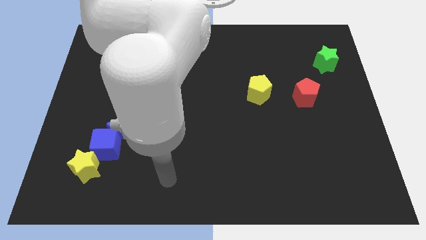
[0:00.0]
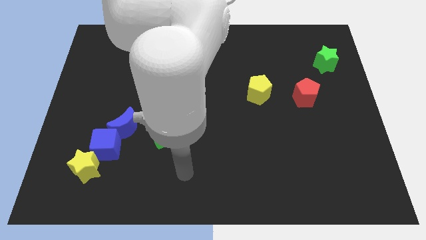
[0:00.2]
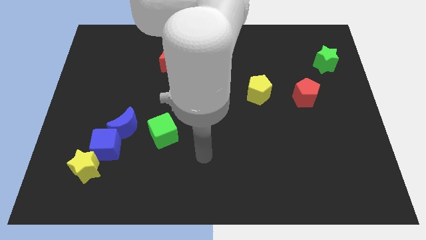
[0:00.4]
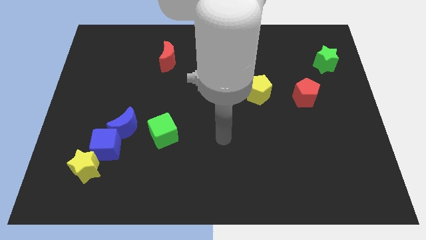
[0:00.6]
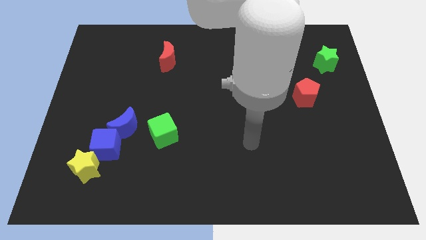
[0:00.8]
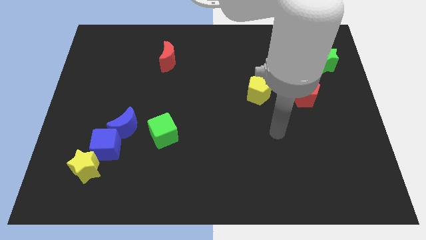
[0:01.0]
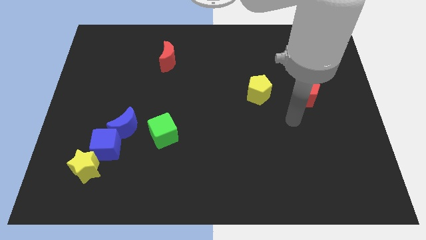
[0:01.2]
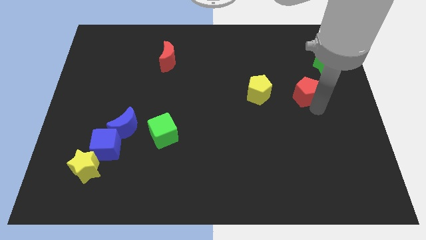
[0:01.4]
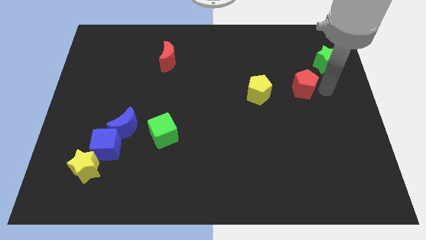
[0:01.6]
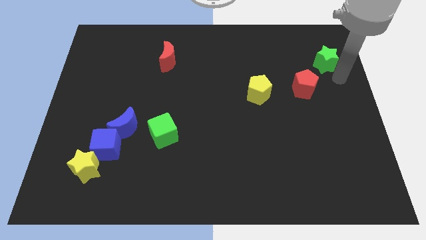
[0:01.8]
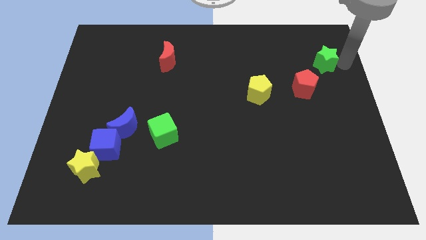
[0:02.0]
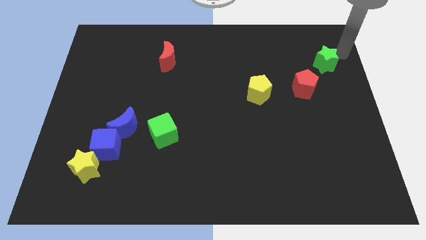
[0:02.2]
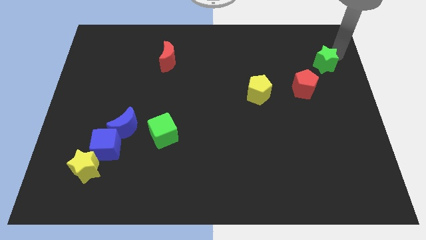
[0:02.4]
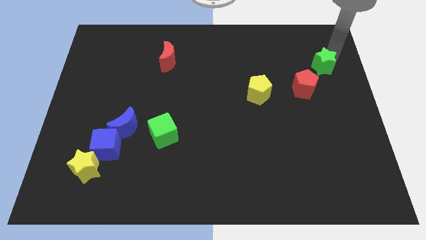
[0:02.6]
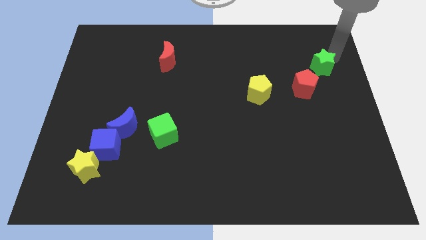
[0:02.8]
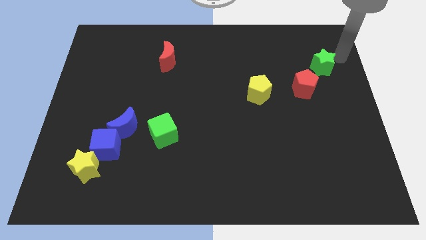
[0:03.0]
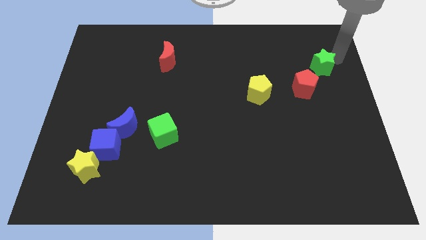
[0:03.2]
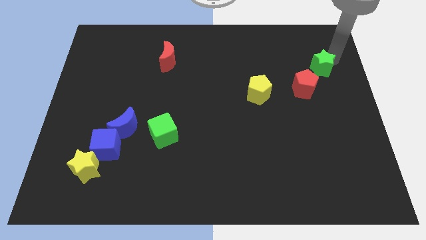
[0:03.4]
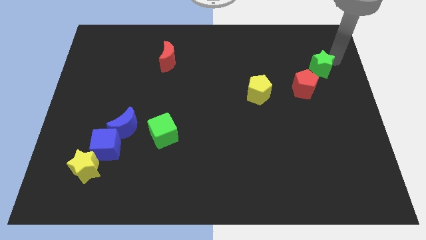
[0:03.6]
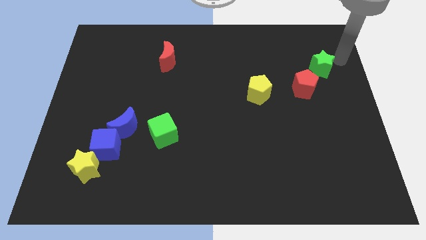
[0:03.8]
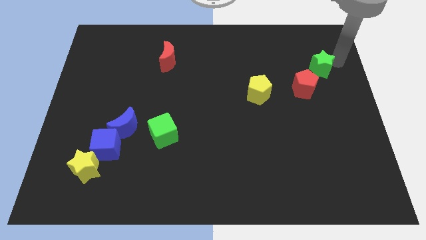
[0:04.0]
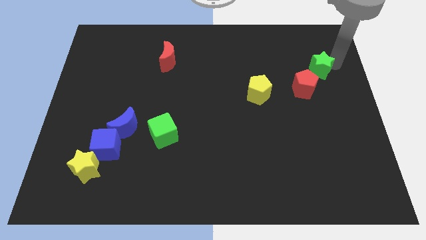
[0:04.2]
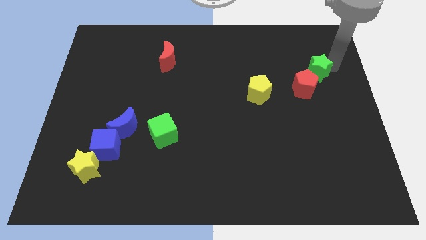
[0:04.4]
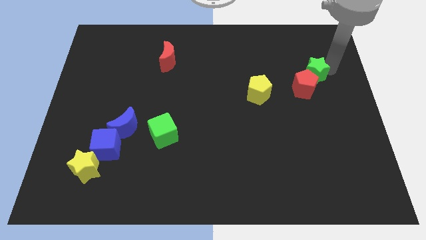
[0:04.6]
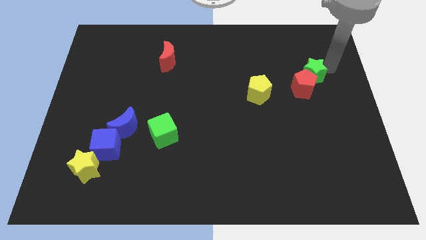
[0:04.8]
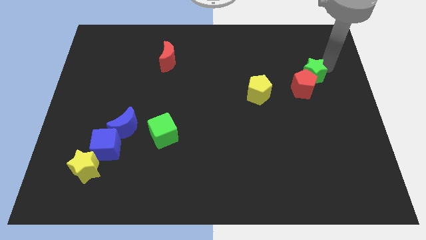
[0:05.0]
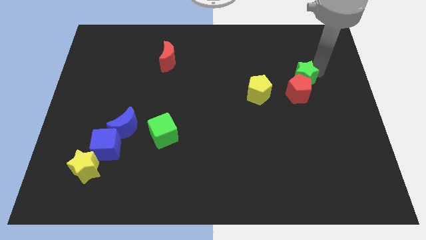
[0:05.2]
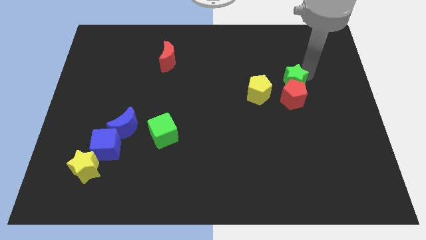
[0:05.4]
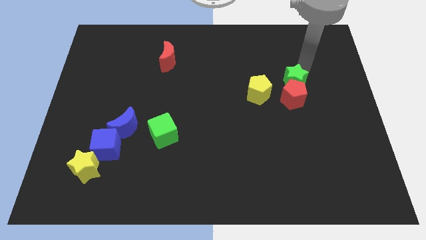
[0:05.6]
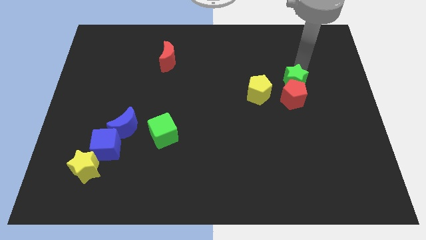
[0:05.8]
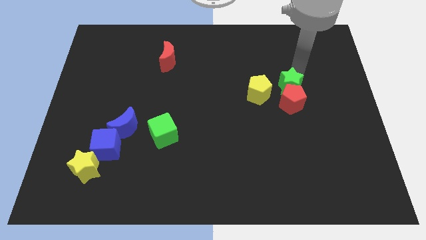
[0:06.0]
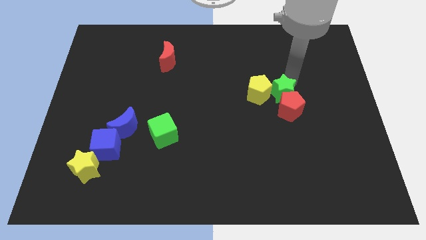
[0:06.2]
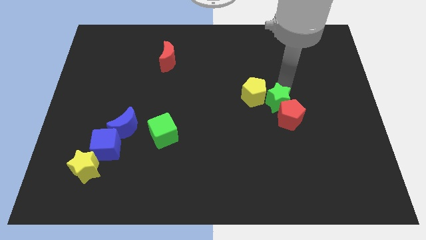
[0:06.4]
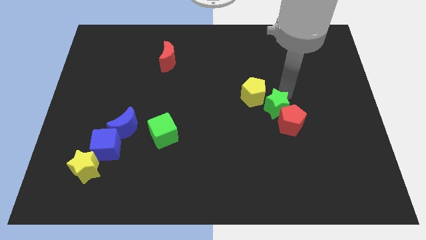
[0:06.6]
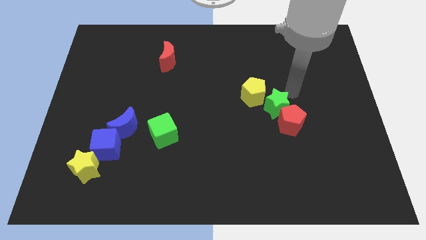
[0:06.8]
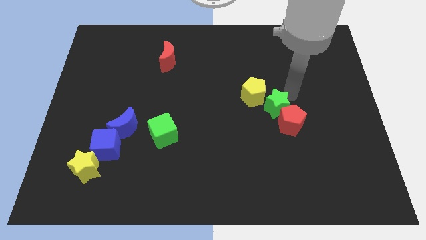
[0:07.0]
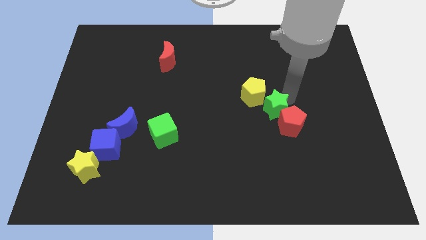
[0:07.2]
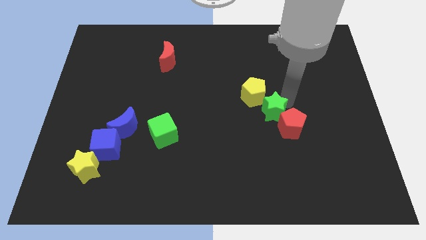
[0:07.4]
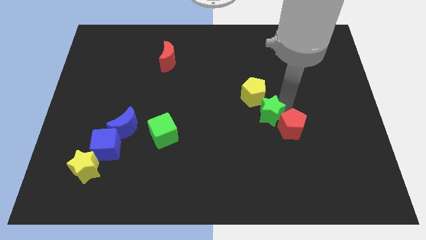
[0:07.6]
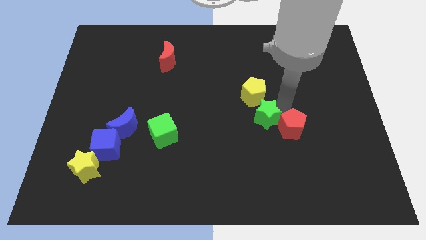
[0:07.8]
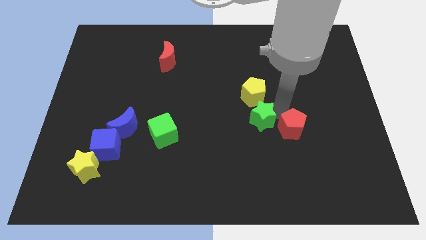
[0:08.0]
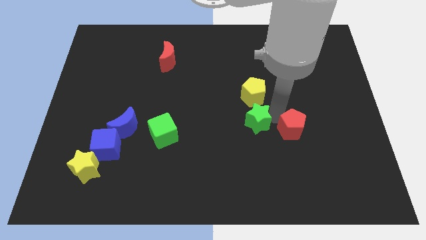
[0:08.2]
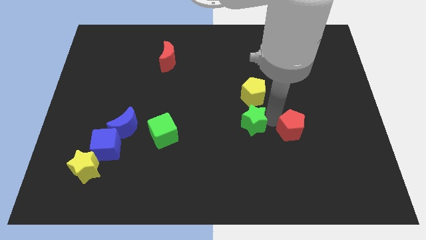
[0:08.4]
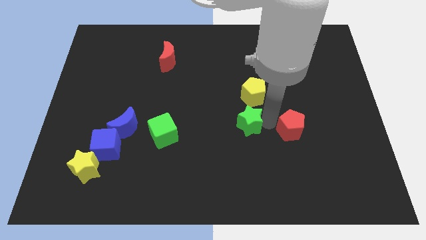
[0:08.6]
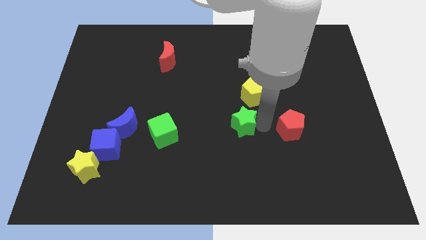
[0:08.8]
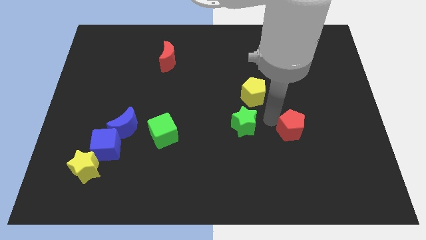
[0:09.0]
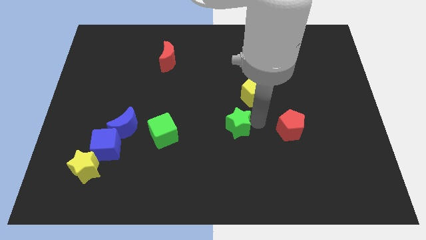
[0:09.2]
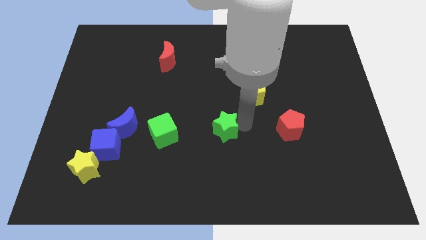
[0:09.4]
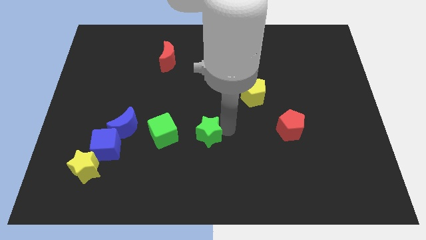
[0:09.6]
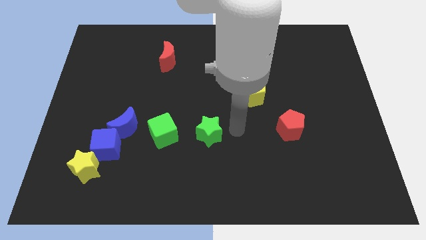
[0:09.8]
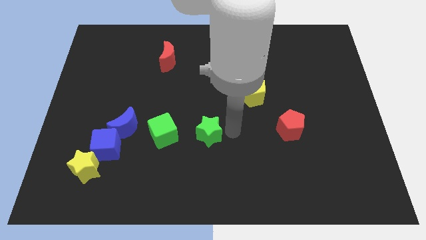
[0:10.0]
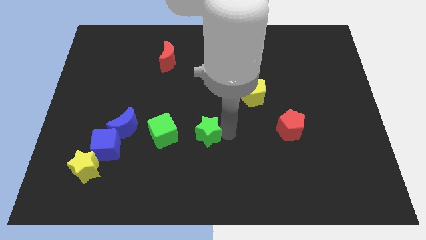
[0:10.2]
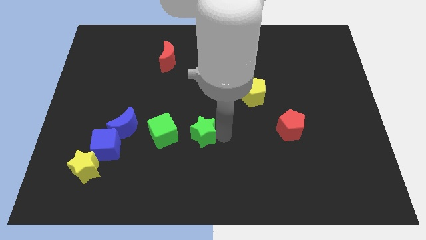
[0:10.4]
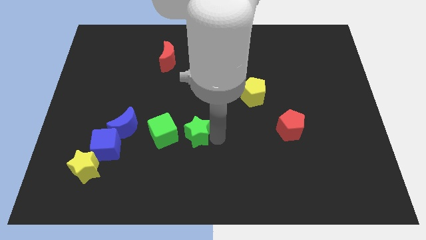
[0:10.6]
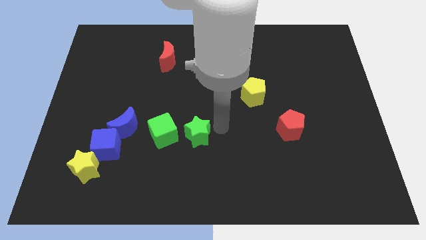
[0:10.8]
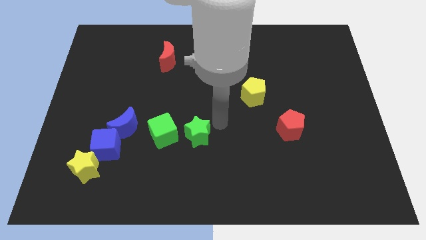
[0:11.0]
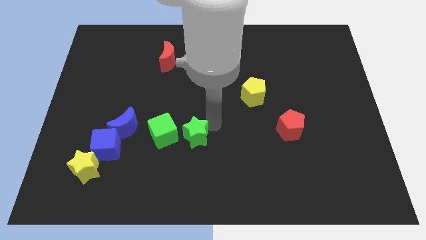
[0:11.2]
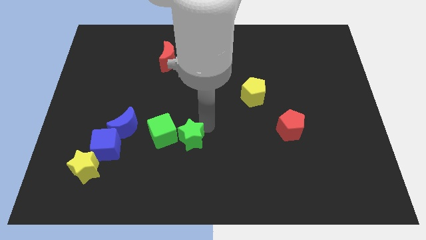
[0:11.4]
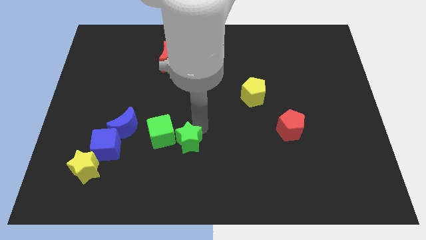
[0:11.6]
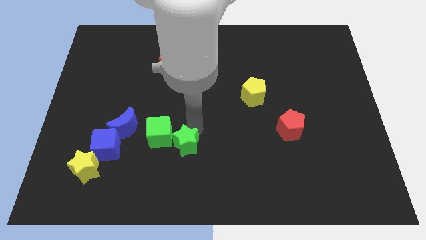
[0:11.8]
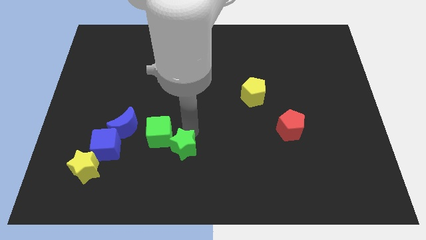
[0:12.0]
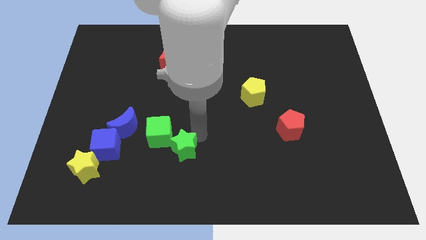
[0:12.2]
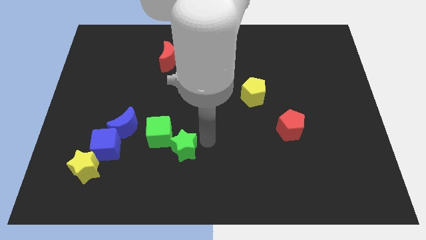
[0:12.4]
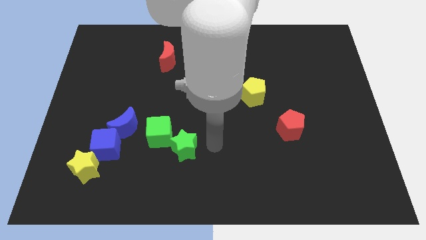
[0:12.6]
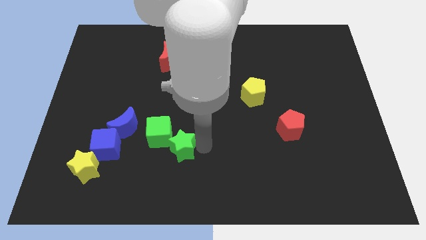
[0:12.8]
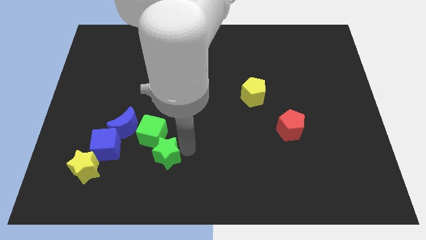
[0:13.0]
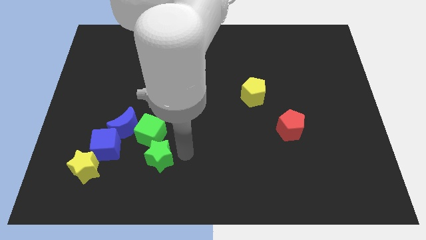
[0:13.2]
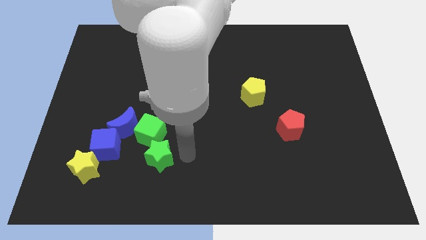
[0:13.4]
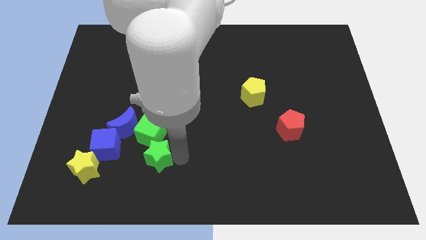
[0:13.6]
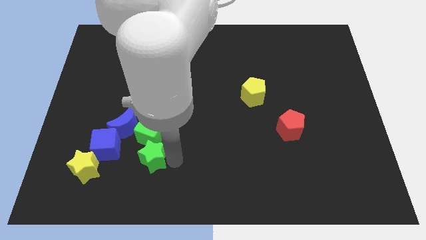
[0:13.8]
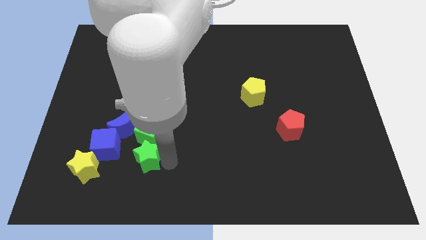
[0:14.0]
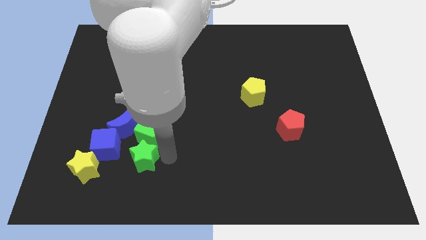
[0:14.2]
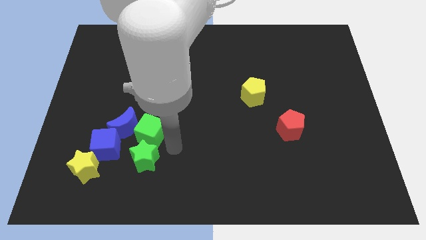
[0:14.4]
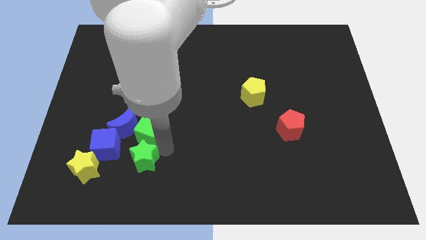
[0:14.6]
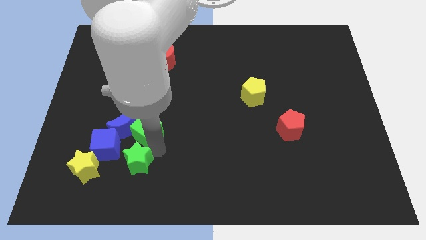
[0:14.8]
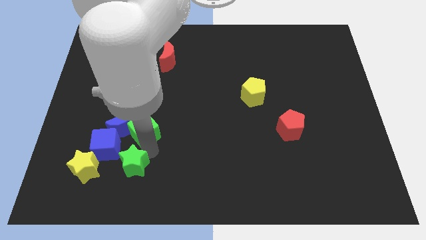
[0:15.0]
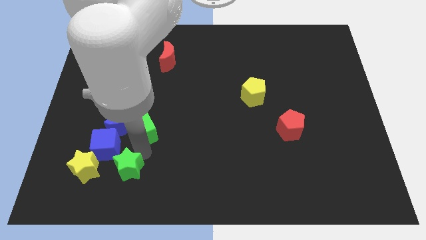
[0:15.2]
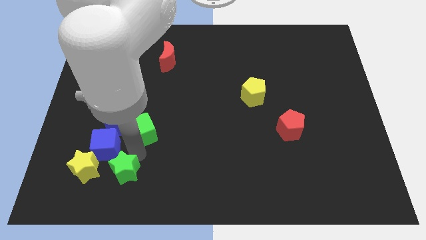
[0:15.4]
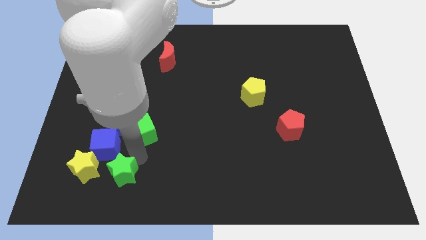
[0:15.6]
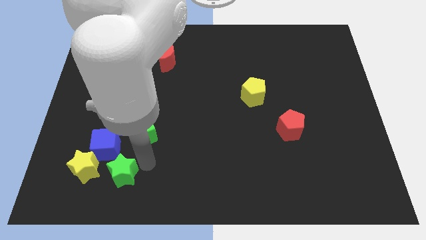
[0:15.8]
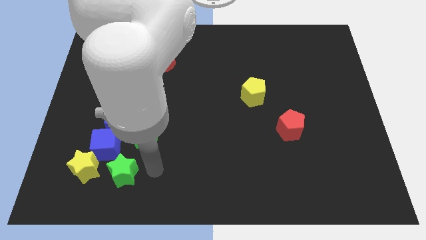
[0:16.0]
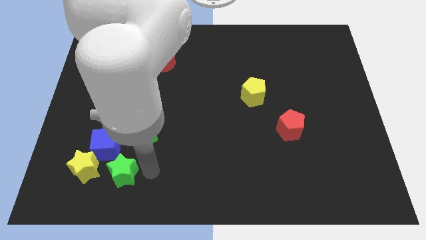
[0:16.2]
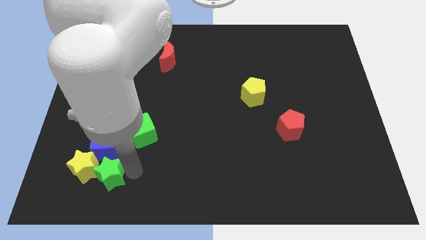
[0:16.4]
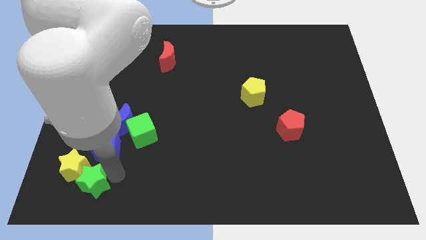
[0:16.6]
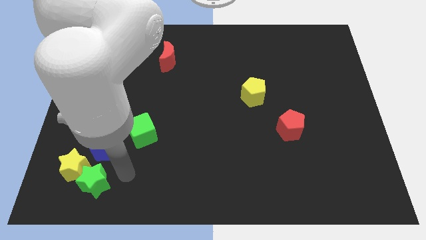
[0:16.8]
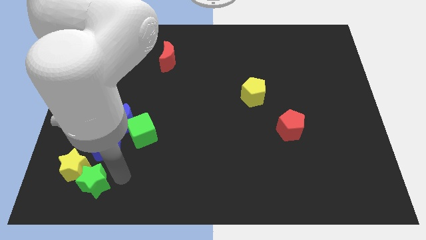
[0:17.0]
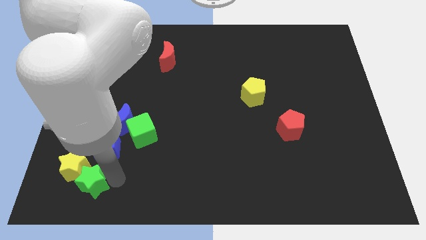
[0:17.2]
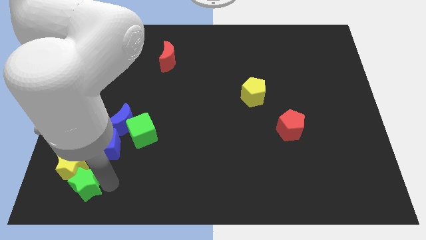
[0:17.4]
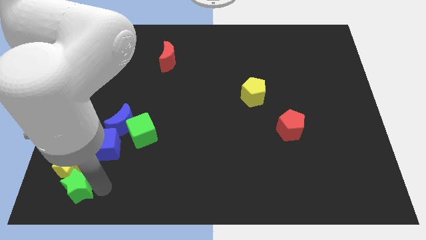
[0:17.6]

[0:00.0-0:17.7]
slide the green star to the lower left corner
